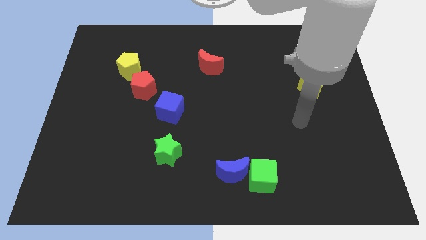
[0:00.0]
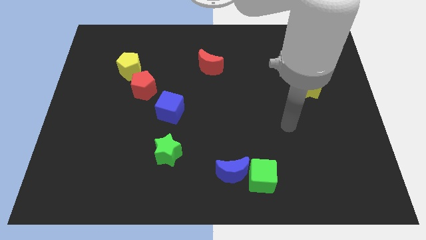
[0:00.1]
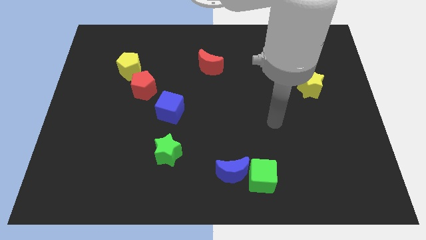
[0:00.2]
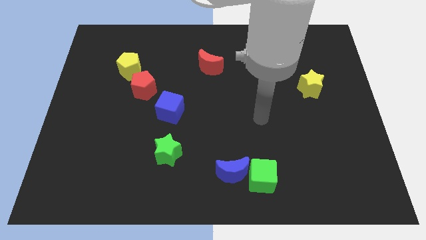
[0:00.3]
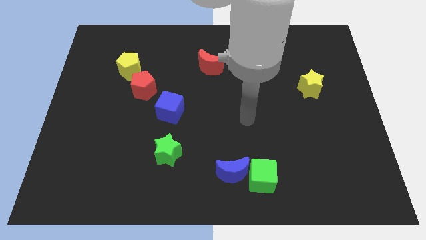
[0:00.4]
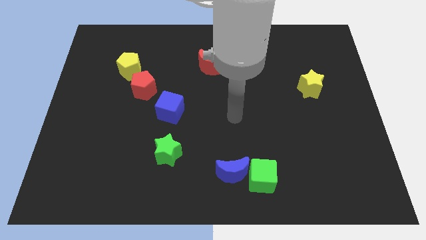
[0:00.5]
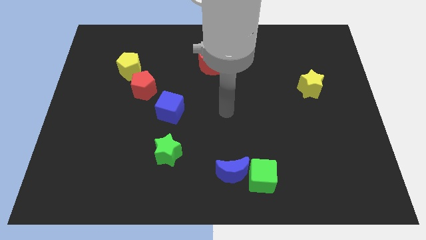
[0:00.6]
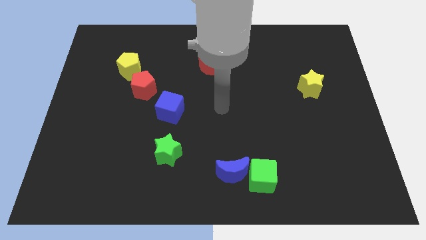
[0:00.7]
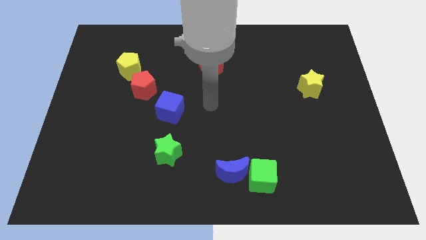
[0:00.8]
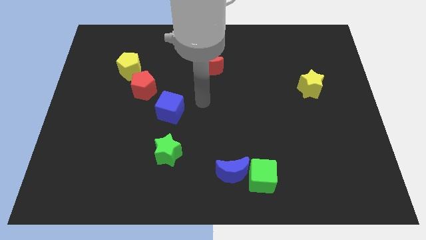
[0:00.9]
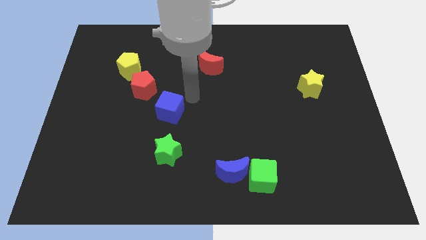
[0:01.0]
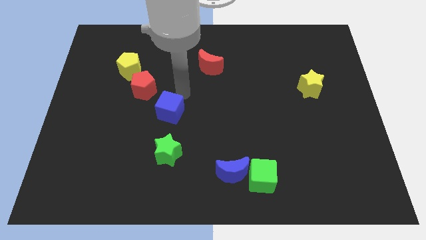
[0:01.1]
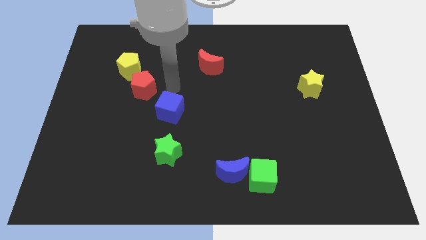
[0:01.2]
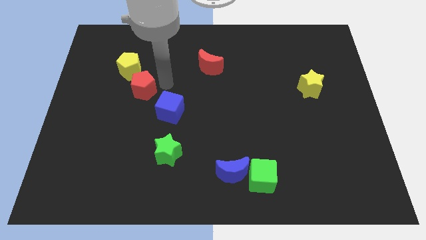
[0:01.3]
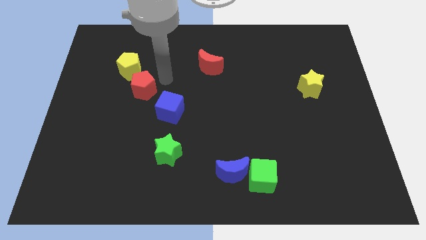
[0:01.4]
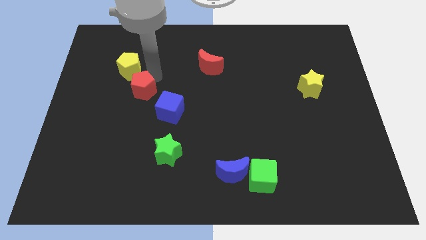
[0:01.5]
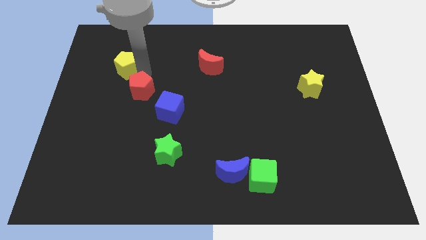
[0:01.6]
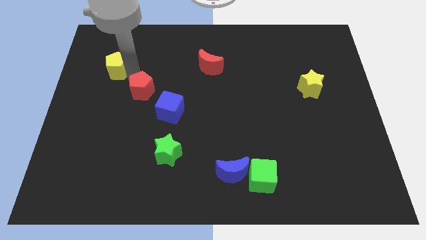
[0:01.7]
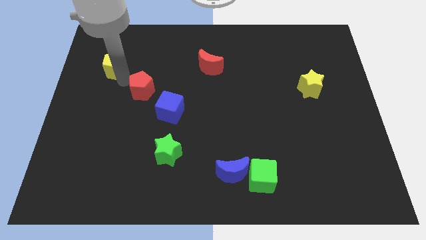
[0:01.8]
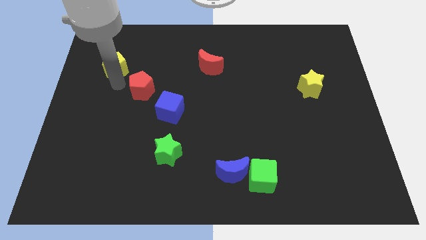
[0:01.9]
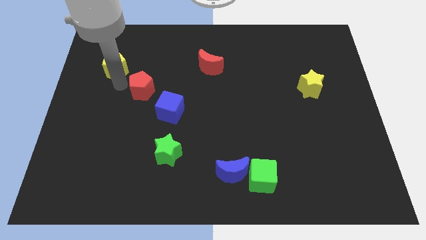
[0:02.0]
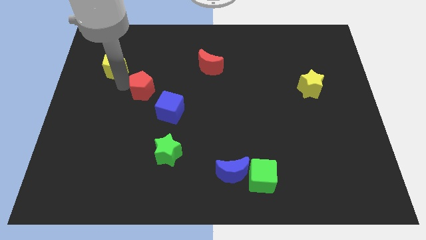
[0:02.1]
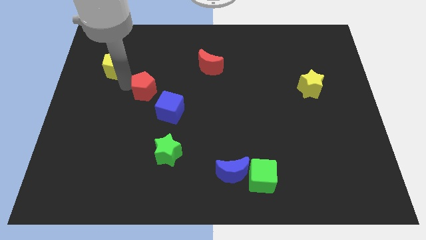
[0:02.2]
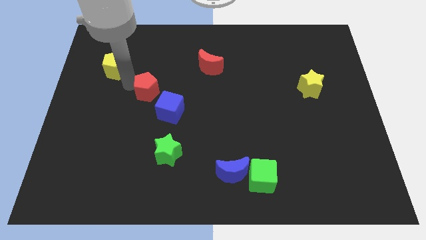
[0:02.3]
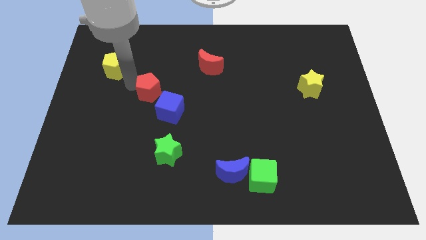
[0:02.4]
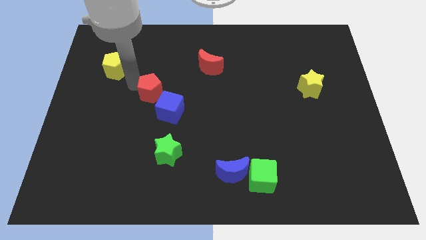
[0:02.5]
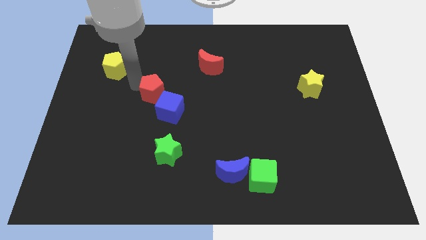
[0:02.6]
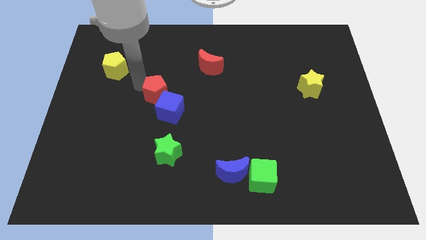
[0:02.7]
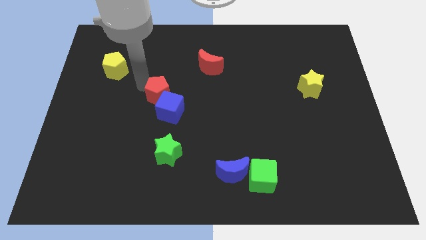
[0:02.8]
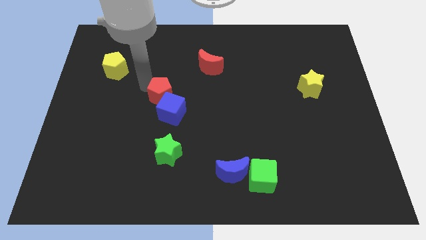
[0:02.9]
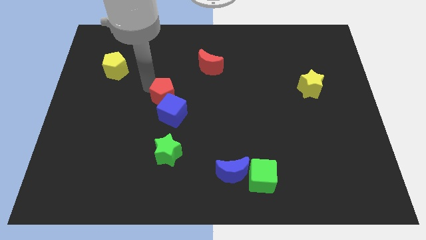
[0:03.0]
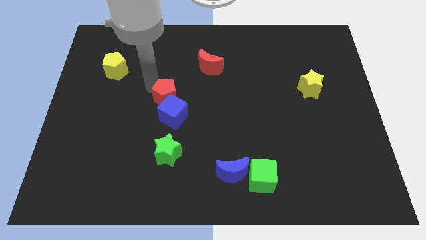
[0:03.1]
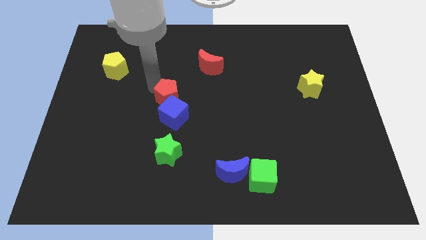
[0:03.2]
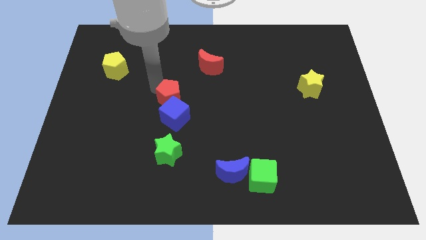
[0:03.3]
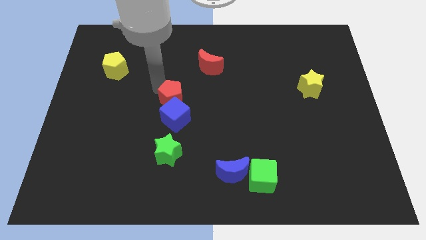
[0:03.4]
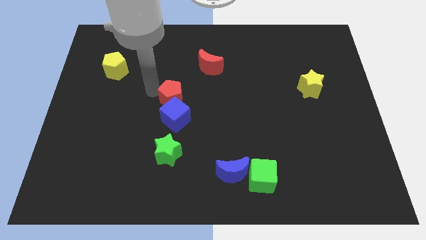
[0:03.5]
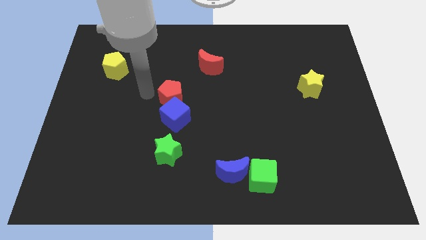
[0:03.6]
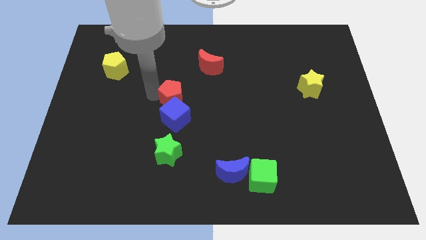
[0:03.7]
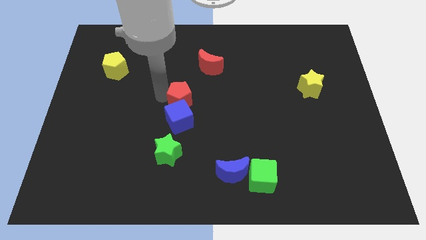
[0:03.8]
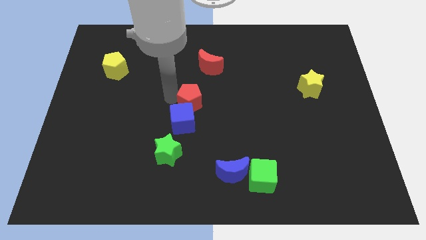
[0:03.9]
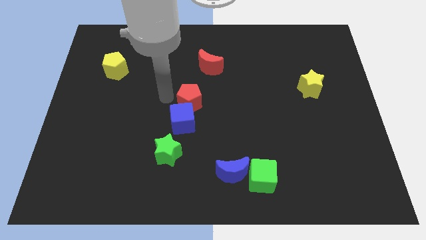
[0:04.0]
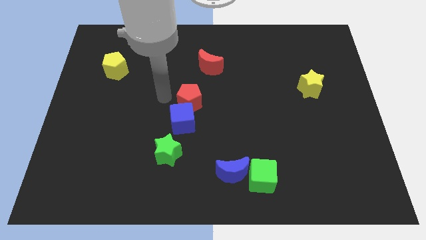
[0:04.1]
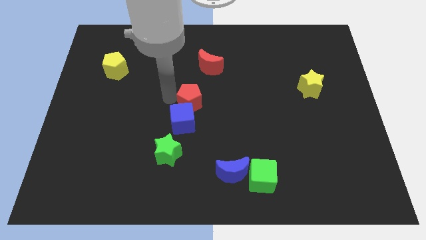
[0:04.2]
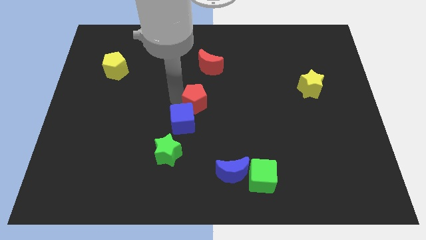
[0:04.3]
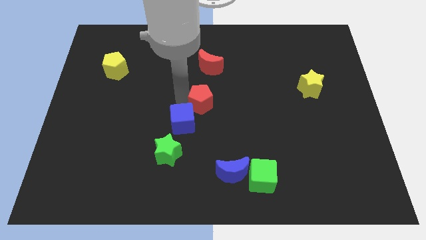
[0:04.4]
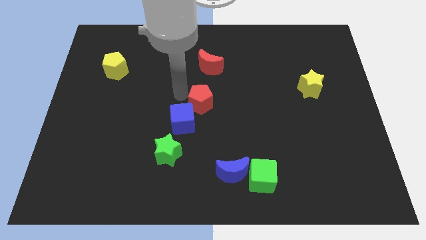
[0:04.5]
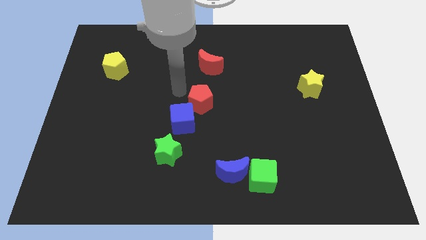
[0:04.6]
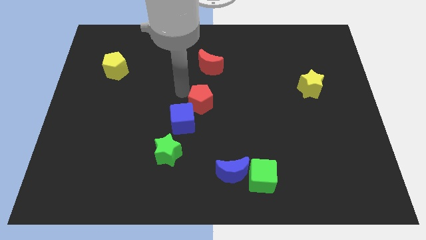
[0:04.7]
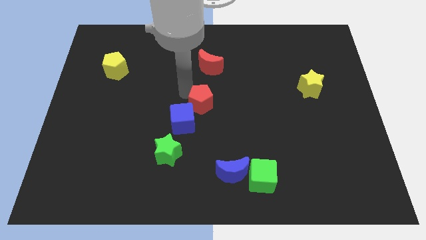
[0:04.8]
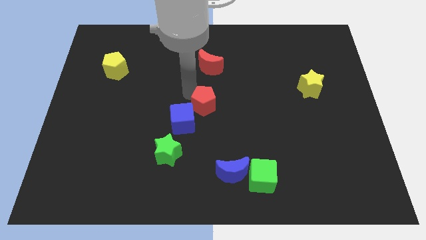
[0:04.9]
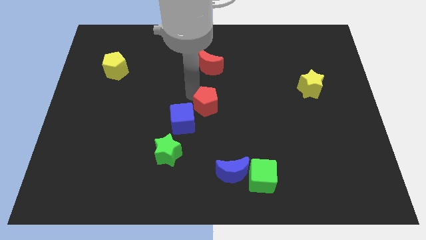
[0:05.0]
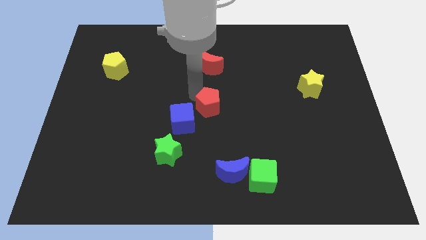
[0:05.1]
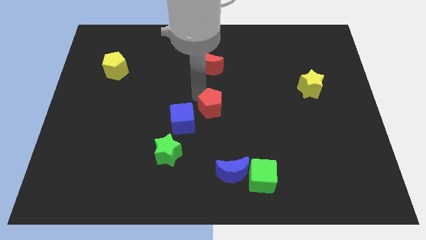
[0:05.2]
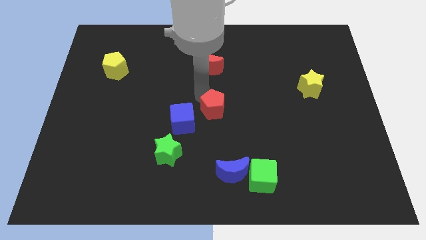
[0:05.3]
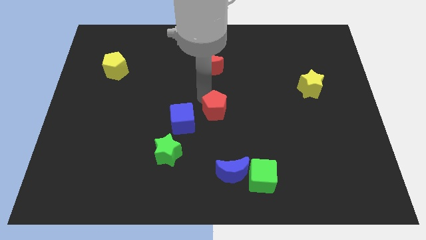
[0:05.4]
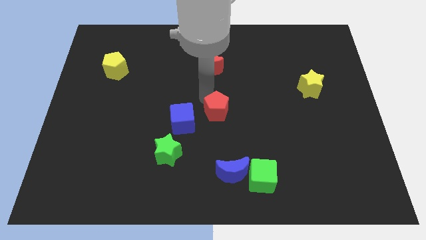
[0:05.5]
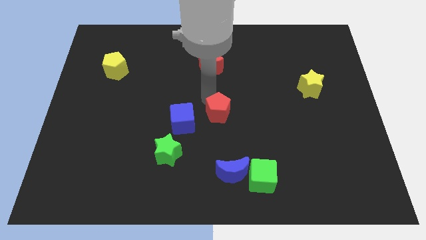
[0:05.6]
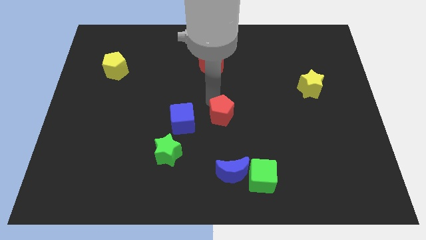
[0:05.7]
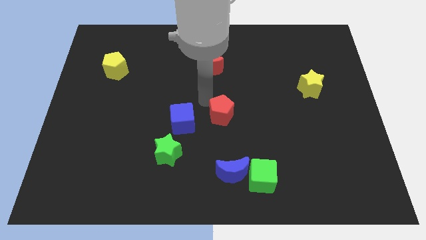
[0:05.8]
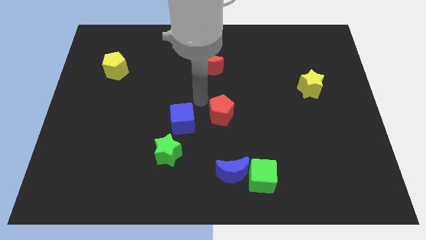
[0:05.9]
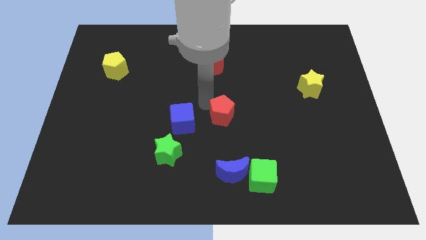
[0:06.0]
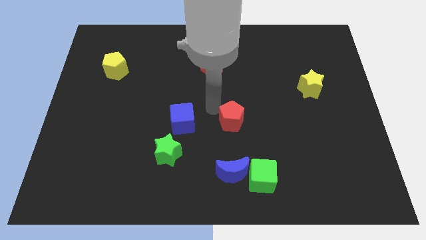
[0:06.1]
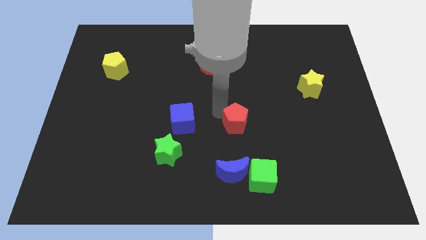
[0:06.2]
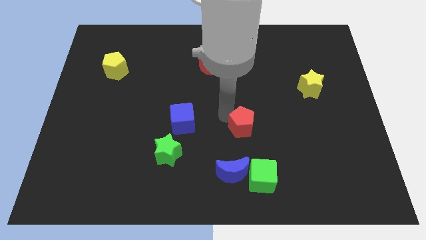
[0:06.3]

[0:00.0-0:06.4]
slide the red pentagon to the top of the green cube
